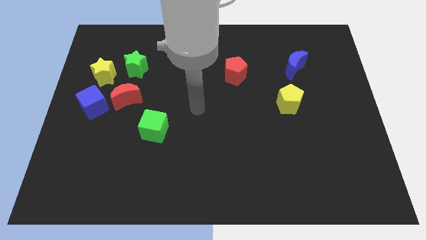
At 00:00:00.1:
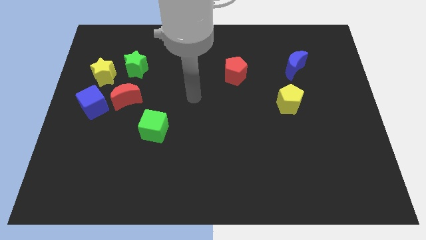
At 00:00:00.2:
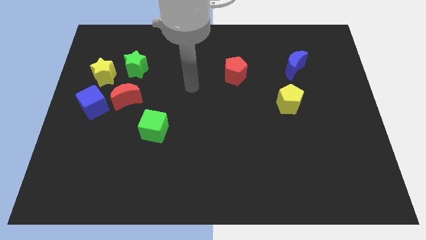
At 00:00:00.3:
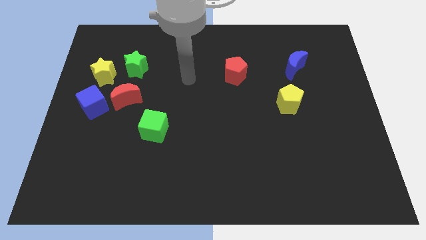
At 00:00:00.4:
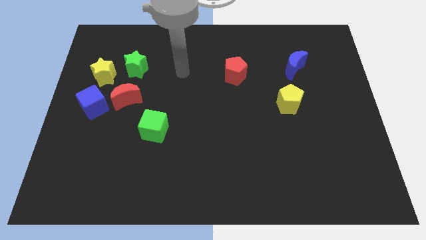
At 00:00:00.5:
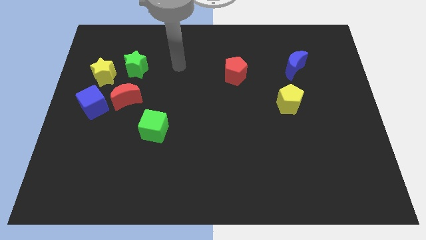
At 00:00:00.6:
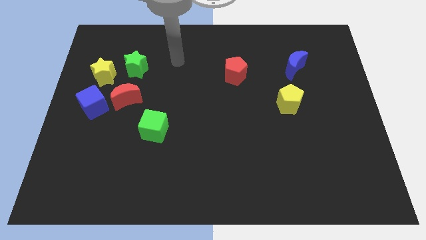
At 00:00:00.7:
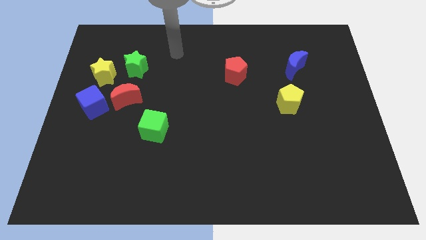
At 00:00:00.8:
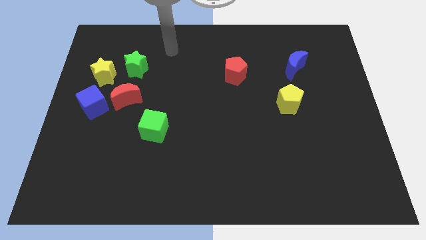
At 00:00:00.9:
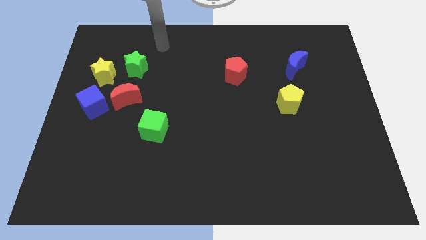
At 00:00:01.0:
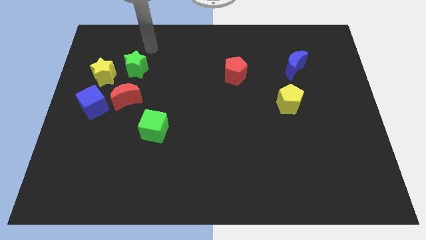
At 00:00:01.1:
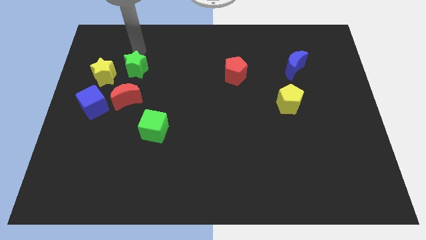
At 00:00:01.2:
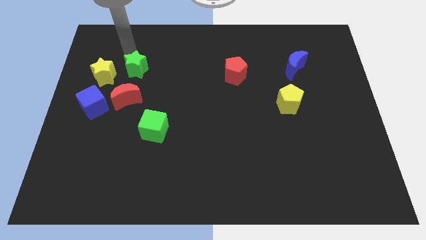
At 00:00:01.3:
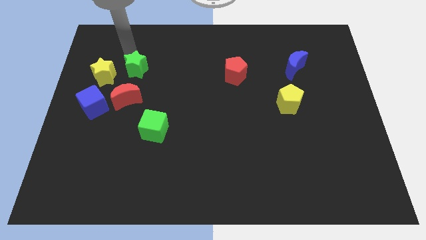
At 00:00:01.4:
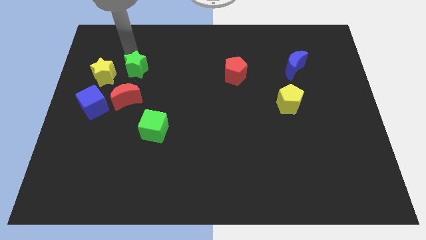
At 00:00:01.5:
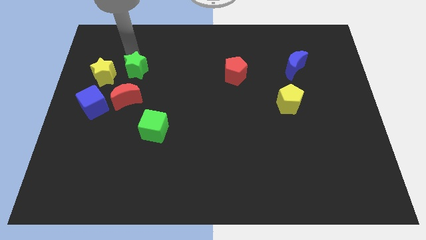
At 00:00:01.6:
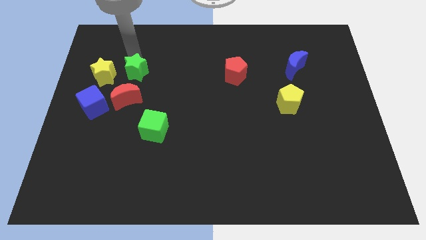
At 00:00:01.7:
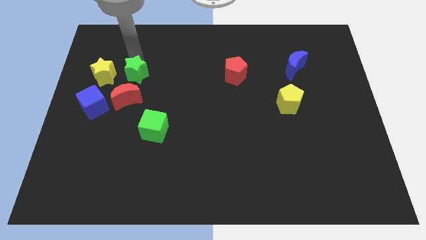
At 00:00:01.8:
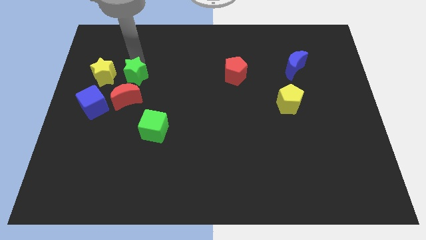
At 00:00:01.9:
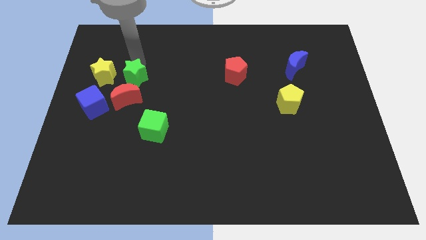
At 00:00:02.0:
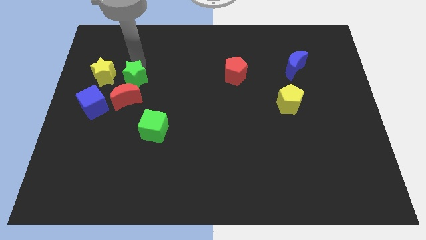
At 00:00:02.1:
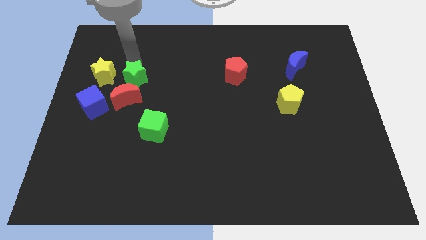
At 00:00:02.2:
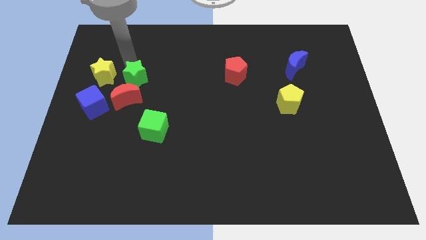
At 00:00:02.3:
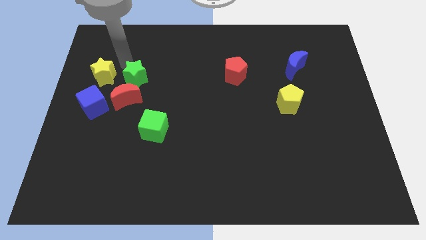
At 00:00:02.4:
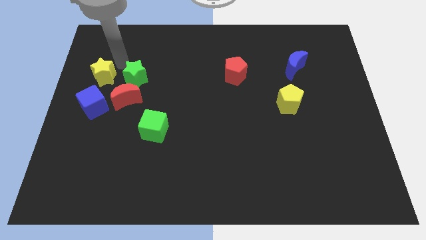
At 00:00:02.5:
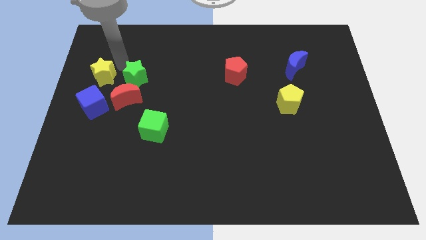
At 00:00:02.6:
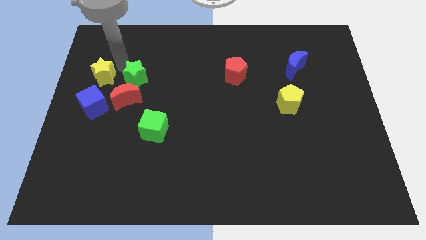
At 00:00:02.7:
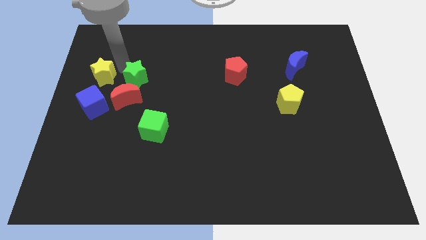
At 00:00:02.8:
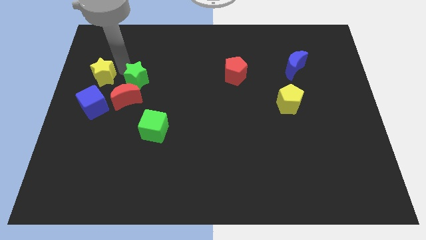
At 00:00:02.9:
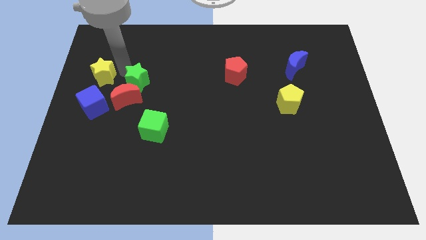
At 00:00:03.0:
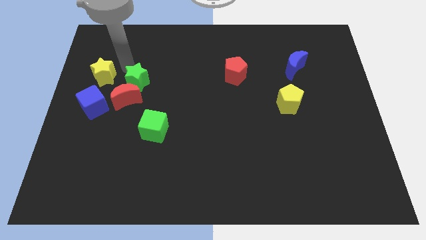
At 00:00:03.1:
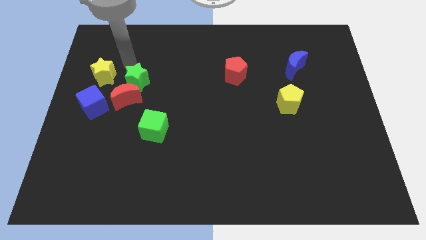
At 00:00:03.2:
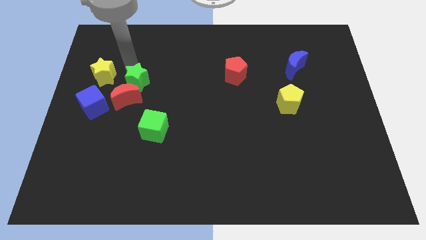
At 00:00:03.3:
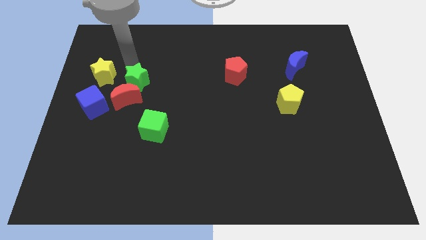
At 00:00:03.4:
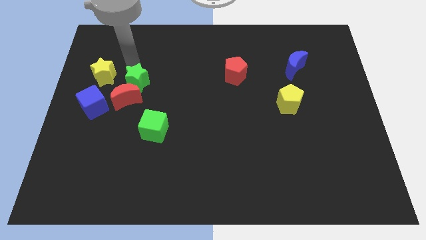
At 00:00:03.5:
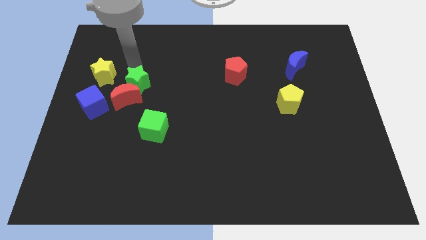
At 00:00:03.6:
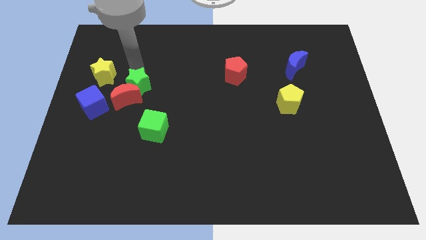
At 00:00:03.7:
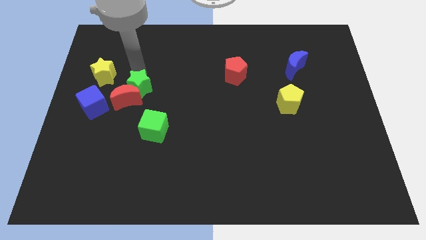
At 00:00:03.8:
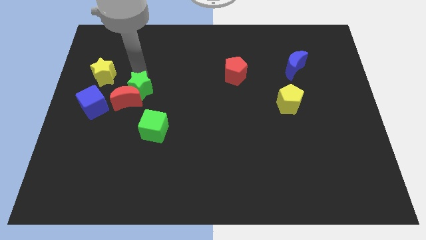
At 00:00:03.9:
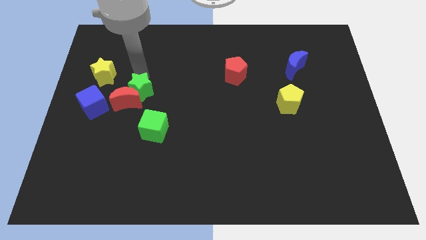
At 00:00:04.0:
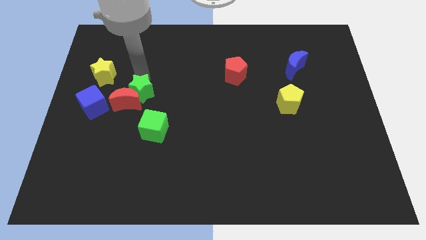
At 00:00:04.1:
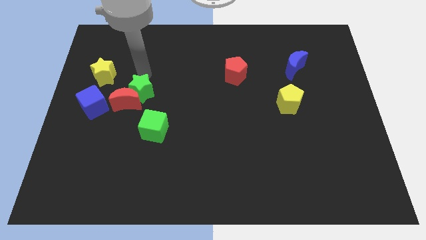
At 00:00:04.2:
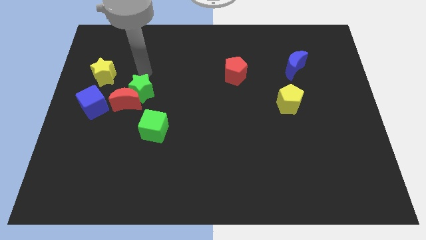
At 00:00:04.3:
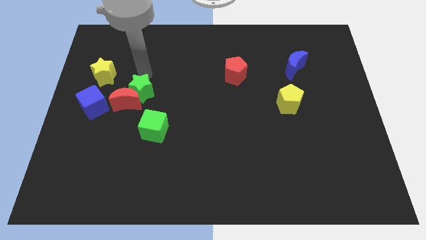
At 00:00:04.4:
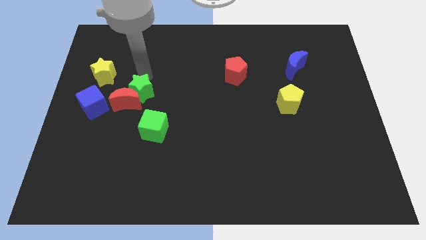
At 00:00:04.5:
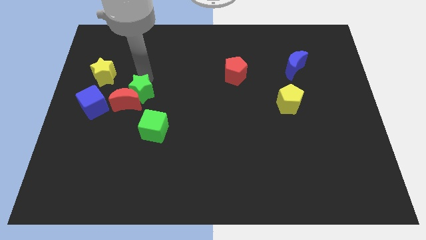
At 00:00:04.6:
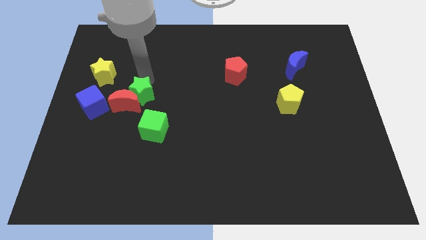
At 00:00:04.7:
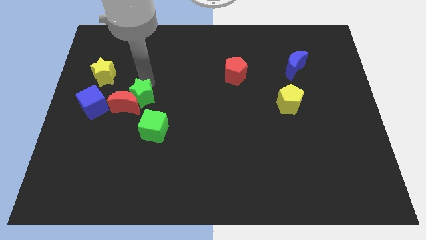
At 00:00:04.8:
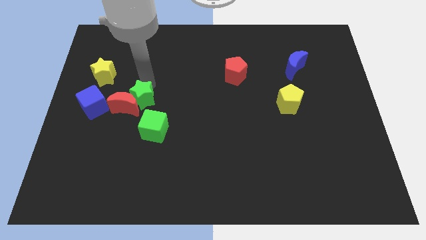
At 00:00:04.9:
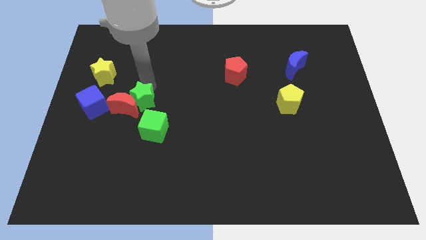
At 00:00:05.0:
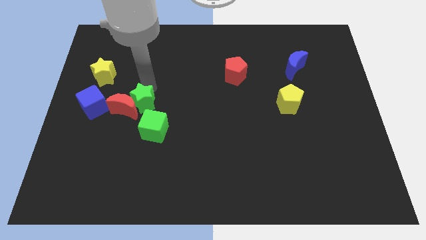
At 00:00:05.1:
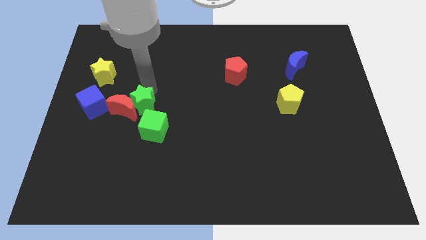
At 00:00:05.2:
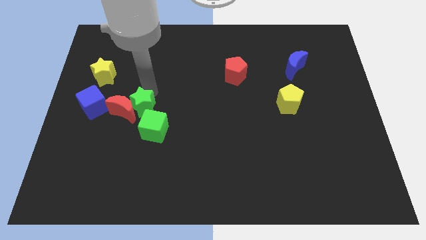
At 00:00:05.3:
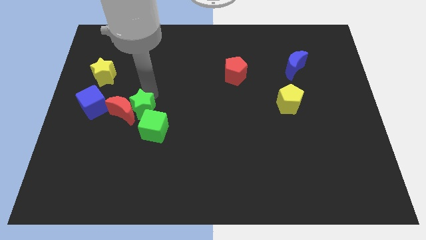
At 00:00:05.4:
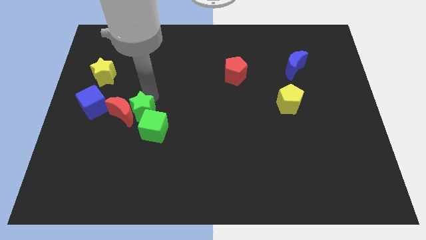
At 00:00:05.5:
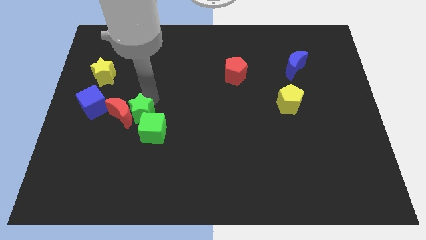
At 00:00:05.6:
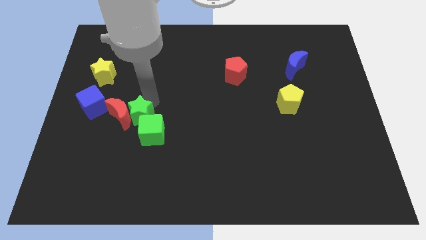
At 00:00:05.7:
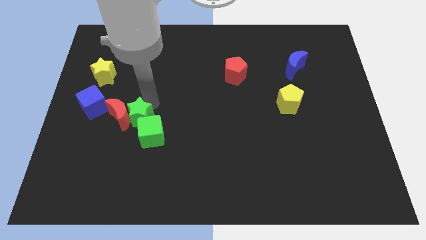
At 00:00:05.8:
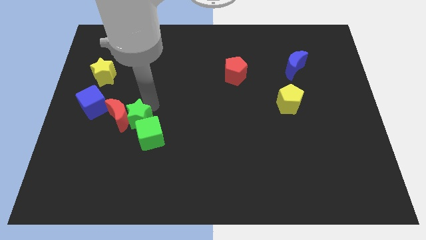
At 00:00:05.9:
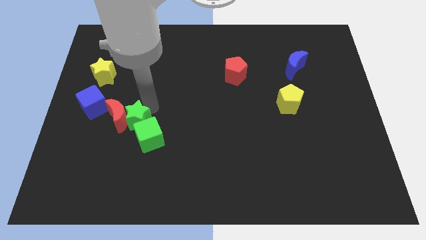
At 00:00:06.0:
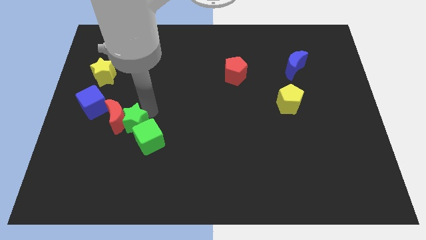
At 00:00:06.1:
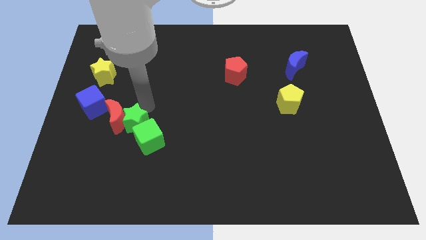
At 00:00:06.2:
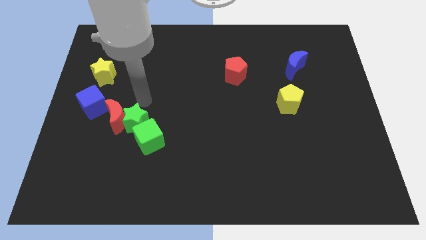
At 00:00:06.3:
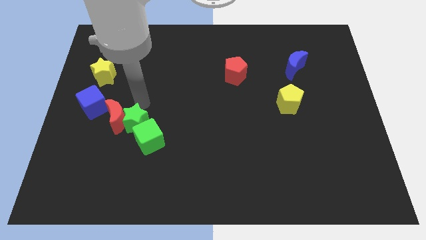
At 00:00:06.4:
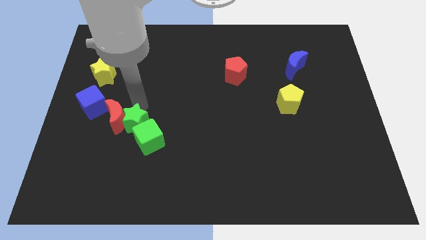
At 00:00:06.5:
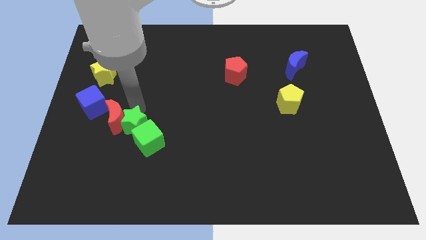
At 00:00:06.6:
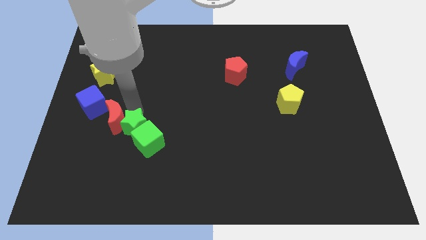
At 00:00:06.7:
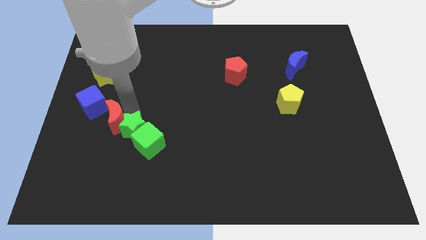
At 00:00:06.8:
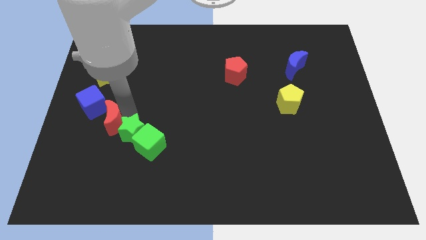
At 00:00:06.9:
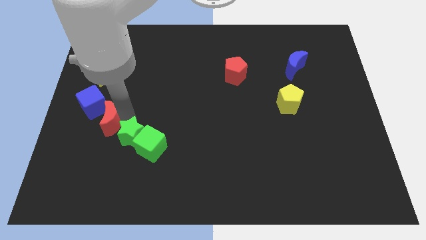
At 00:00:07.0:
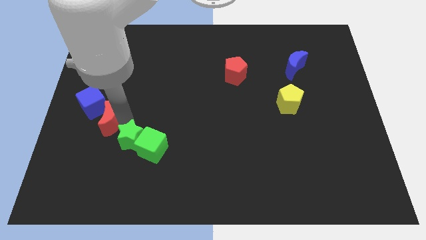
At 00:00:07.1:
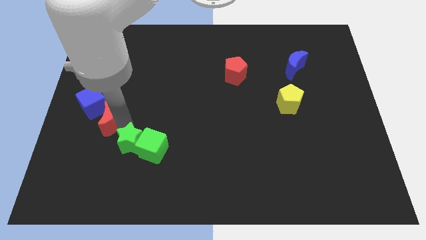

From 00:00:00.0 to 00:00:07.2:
move the green star to the bottom left of the green cube
